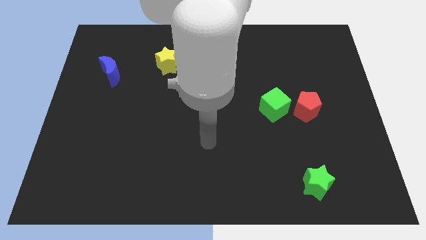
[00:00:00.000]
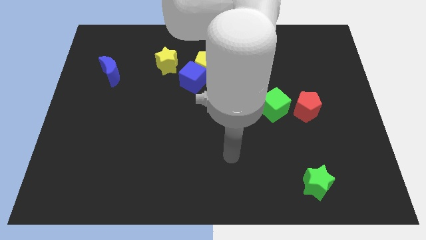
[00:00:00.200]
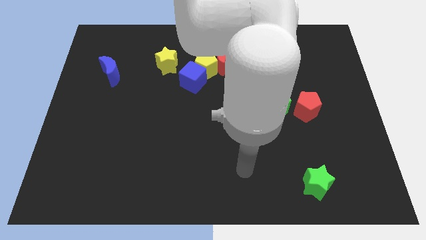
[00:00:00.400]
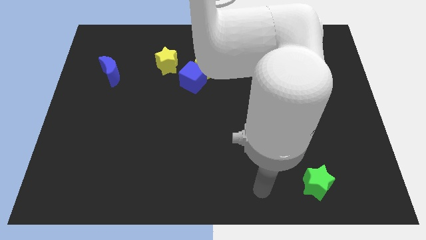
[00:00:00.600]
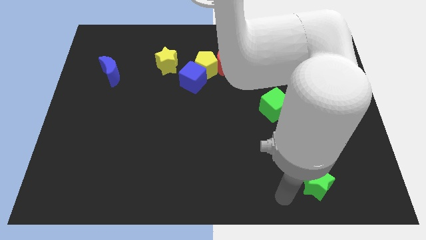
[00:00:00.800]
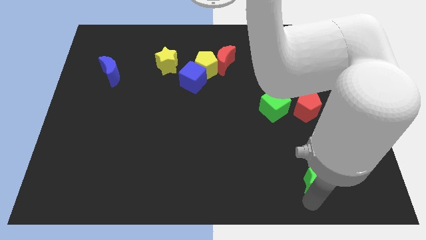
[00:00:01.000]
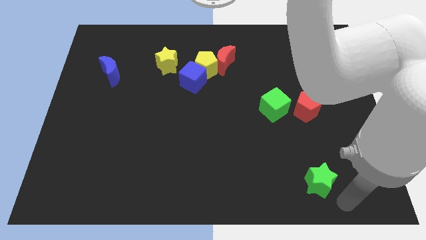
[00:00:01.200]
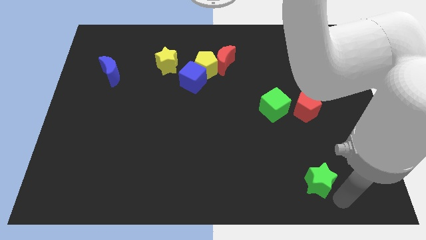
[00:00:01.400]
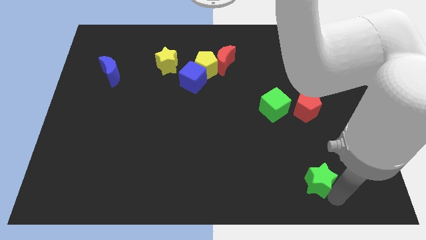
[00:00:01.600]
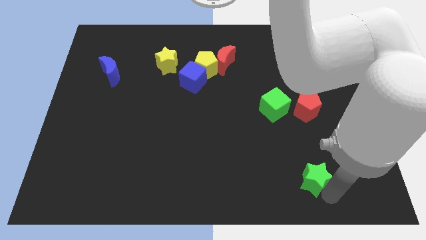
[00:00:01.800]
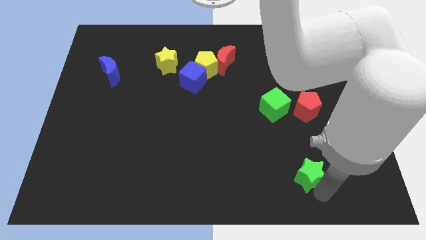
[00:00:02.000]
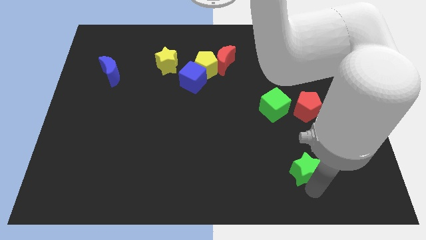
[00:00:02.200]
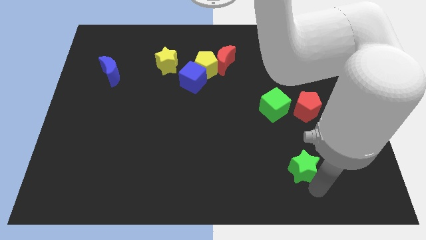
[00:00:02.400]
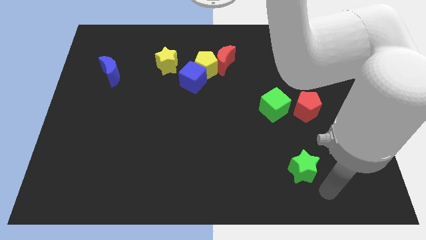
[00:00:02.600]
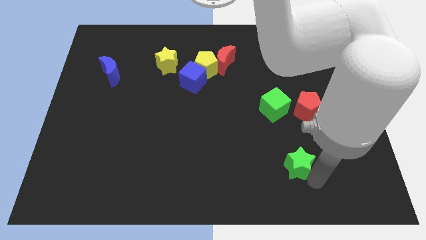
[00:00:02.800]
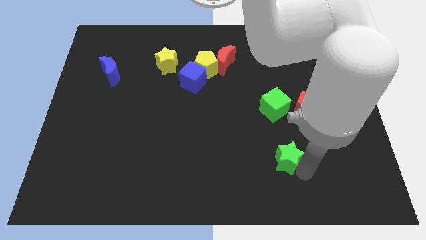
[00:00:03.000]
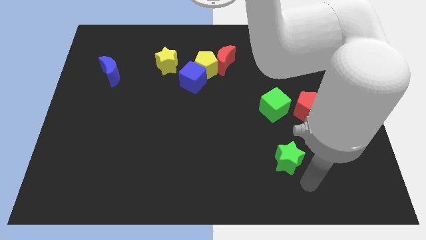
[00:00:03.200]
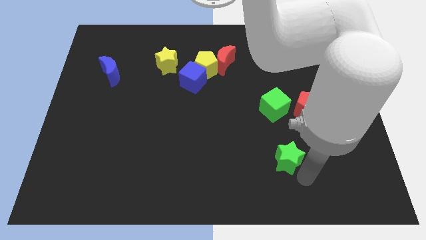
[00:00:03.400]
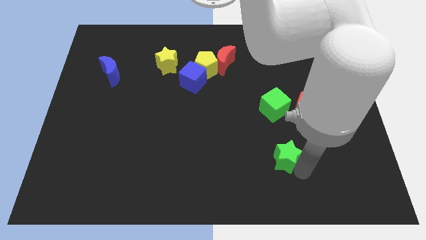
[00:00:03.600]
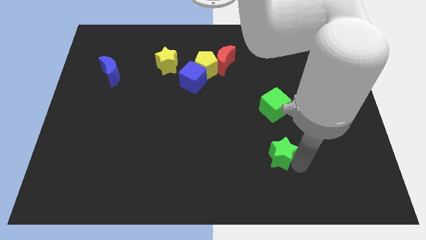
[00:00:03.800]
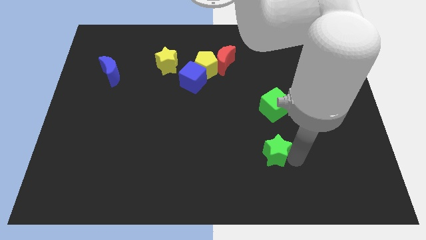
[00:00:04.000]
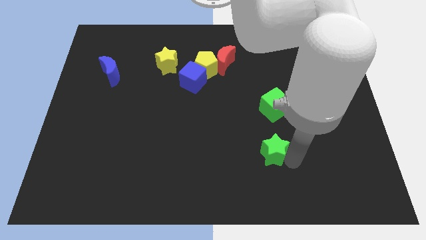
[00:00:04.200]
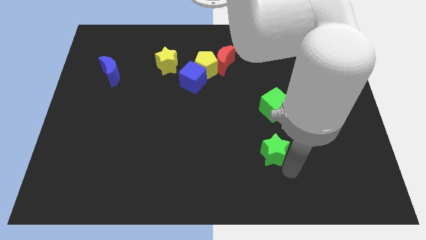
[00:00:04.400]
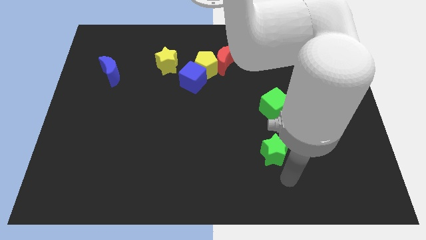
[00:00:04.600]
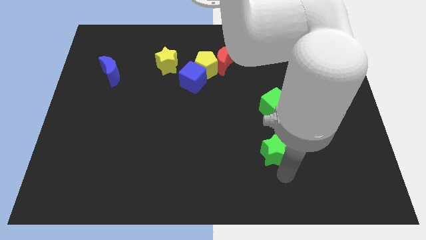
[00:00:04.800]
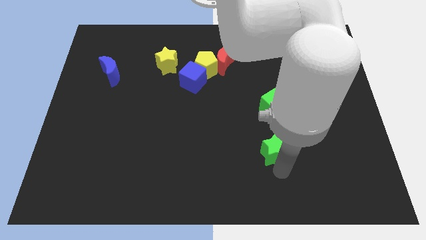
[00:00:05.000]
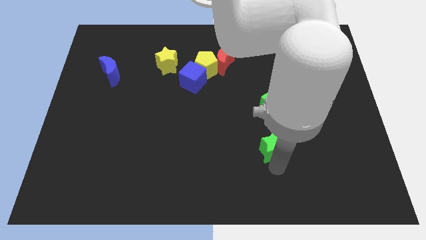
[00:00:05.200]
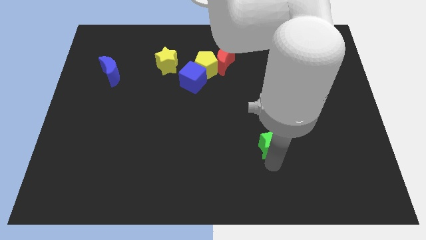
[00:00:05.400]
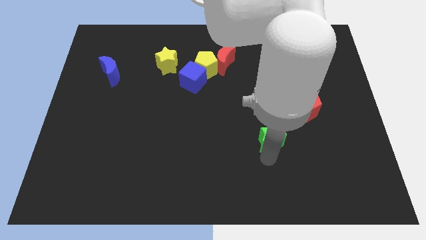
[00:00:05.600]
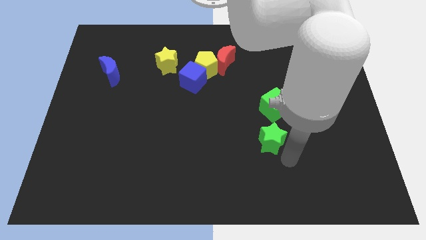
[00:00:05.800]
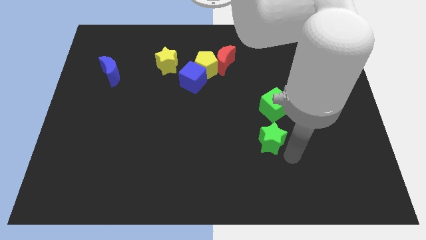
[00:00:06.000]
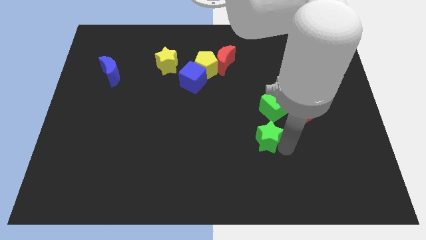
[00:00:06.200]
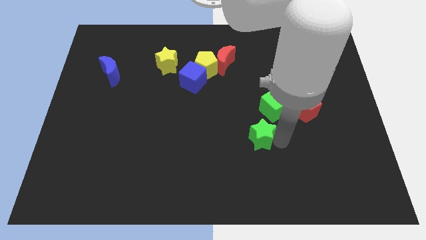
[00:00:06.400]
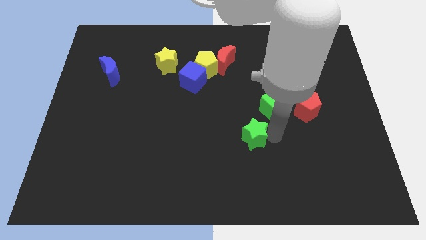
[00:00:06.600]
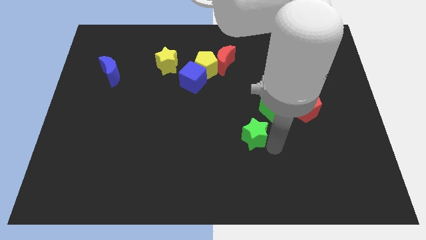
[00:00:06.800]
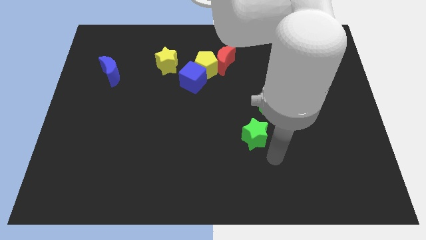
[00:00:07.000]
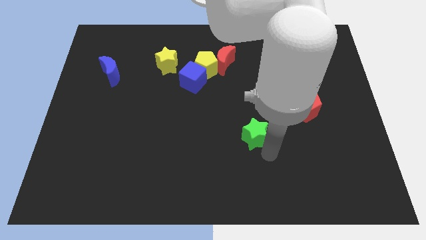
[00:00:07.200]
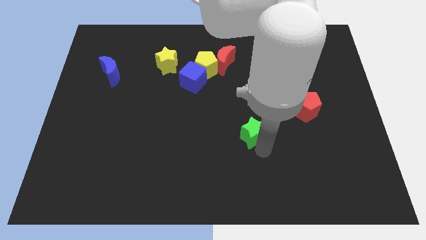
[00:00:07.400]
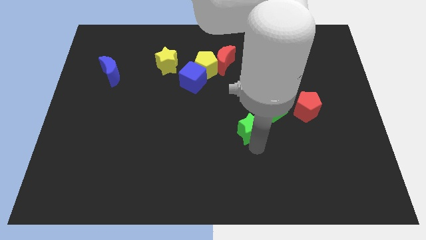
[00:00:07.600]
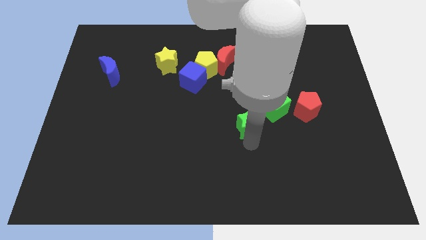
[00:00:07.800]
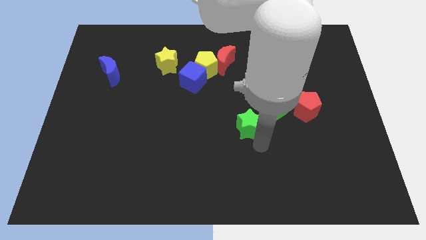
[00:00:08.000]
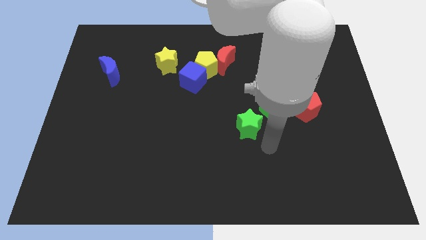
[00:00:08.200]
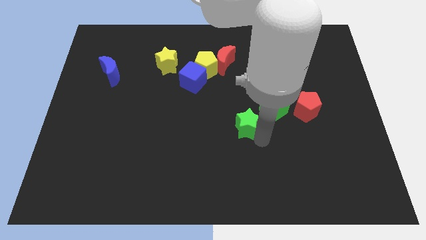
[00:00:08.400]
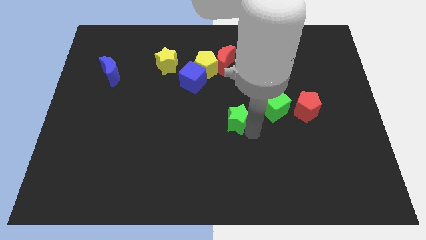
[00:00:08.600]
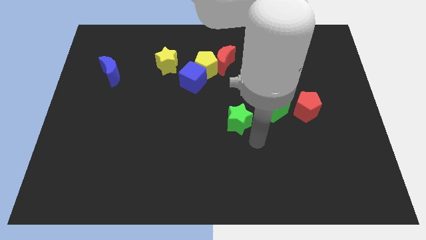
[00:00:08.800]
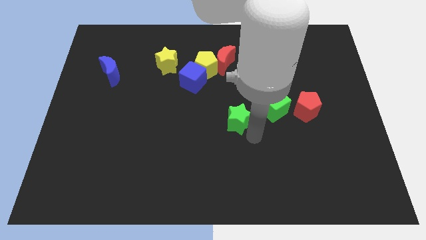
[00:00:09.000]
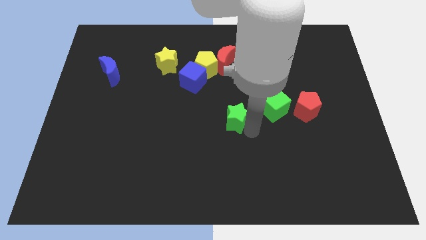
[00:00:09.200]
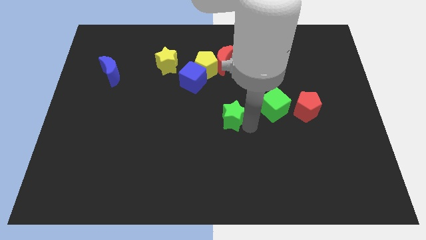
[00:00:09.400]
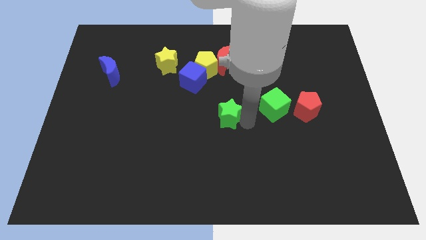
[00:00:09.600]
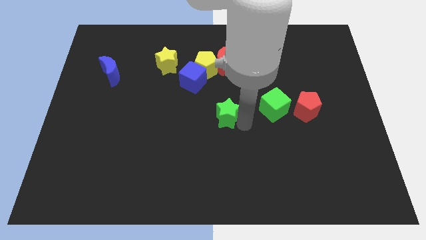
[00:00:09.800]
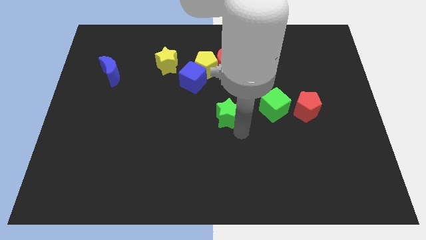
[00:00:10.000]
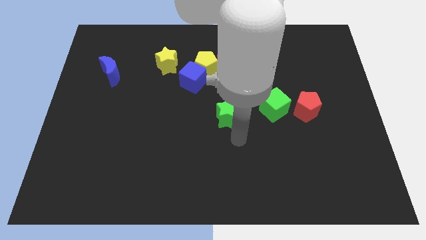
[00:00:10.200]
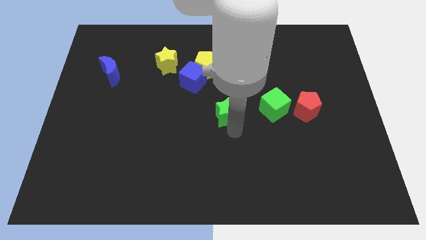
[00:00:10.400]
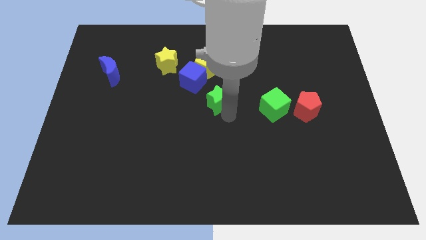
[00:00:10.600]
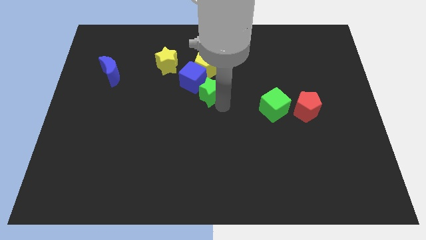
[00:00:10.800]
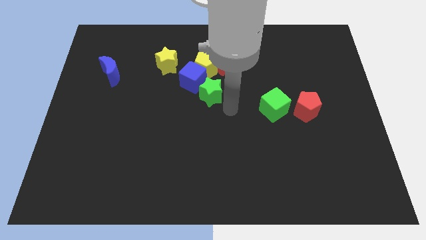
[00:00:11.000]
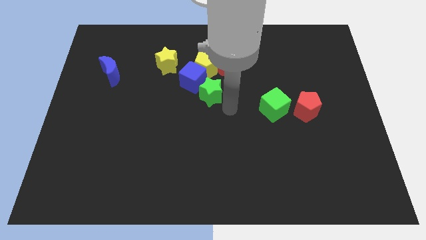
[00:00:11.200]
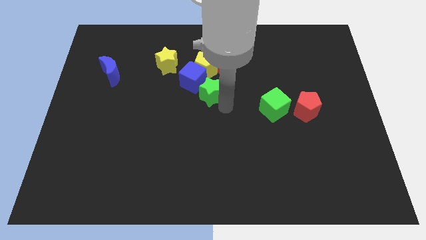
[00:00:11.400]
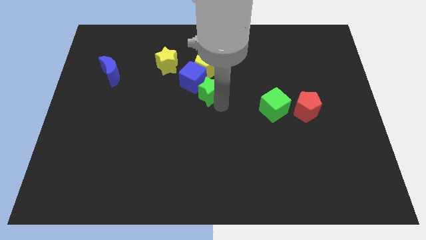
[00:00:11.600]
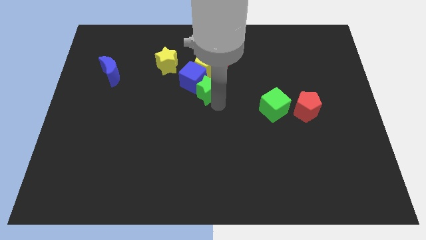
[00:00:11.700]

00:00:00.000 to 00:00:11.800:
put the green star towards the blue cube
